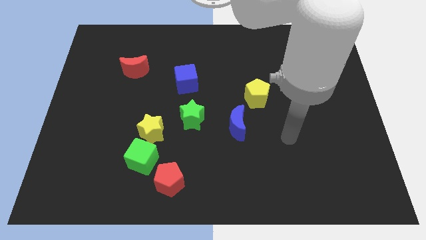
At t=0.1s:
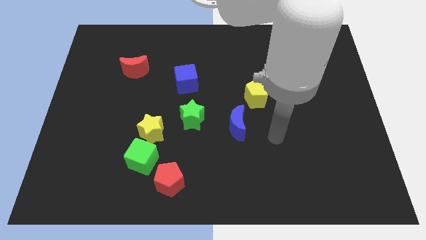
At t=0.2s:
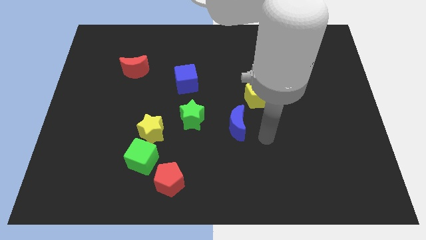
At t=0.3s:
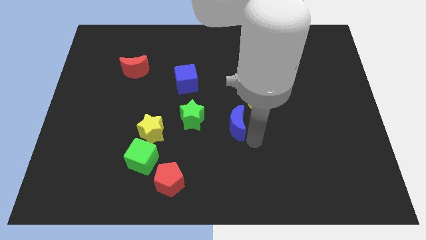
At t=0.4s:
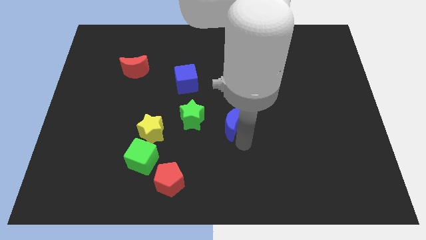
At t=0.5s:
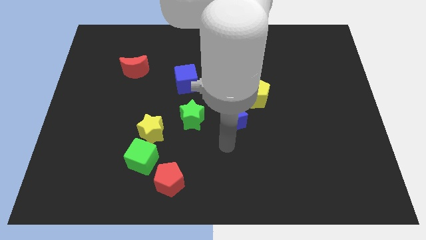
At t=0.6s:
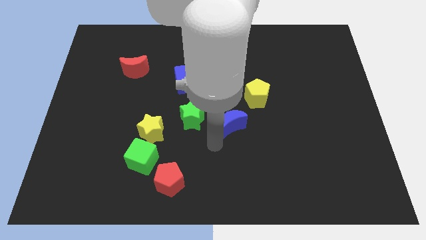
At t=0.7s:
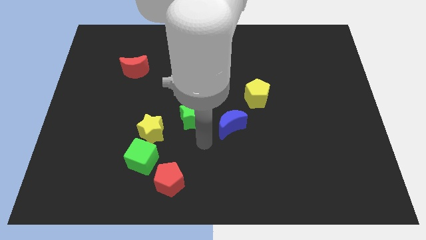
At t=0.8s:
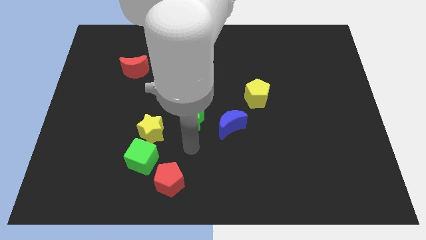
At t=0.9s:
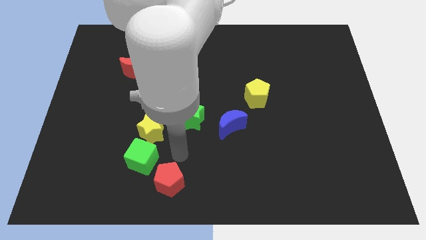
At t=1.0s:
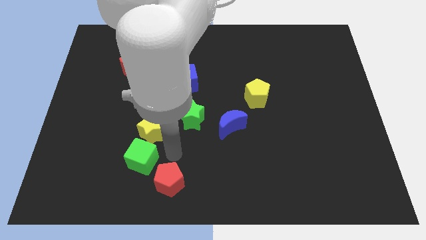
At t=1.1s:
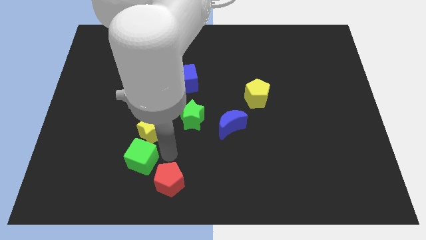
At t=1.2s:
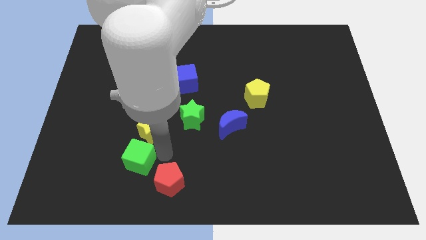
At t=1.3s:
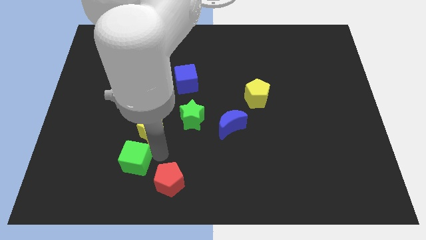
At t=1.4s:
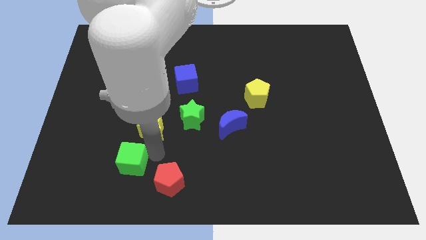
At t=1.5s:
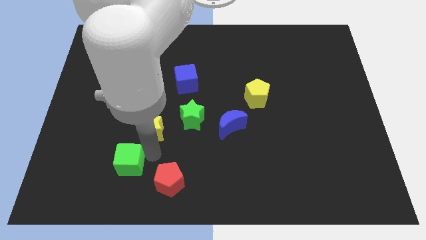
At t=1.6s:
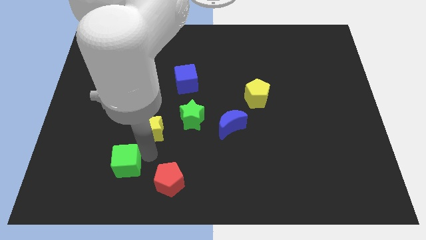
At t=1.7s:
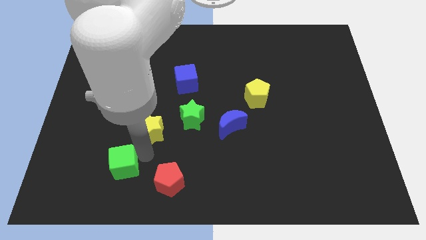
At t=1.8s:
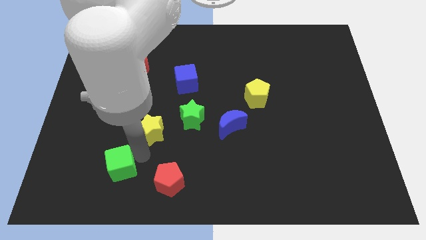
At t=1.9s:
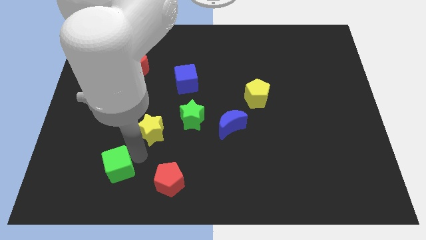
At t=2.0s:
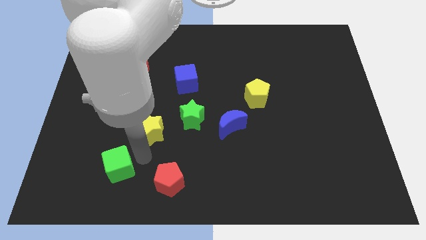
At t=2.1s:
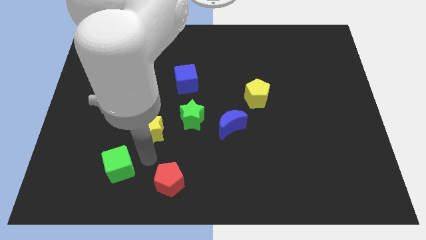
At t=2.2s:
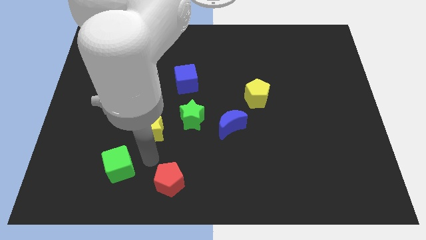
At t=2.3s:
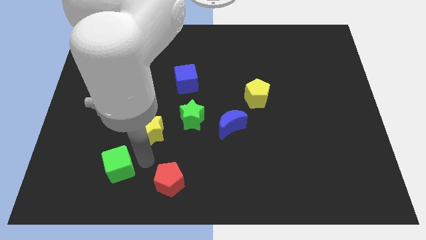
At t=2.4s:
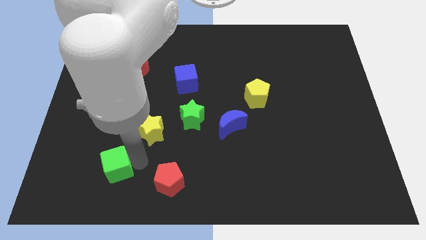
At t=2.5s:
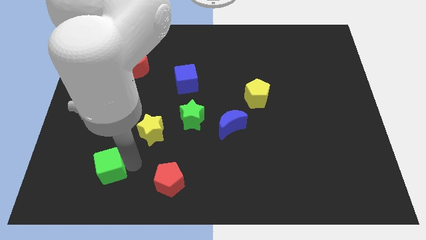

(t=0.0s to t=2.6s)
pull the green cube apart from the yellow star and red pentagon

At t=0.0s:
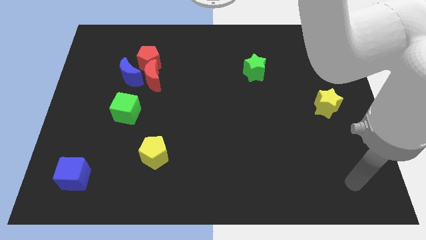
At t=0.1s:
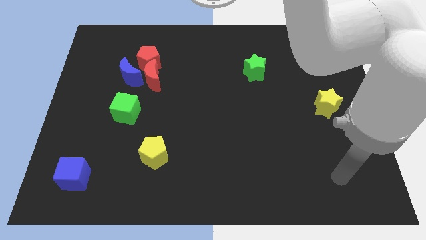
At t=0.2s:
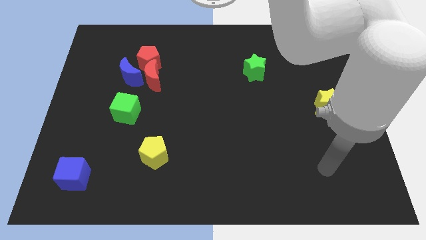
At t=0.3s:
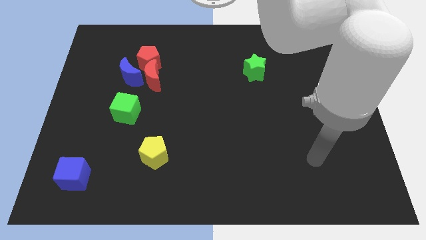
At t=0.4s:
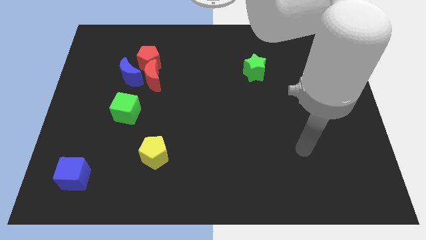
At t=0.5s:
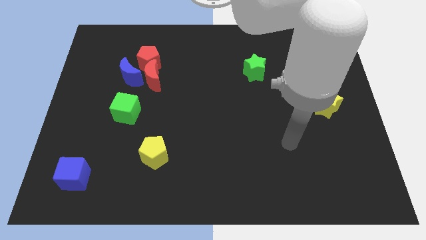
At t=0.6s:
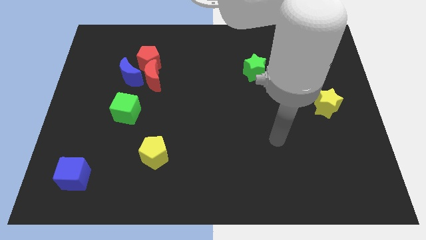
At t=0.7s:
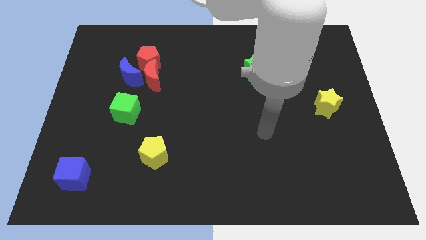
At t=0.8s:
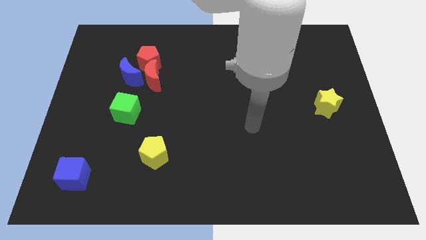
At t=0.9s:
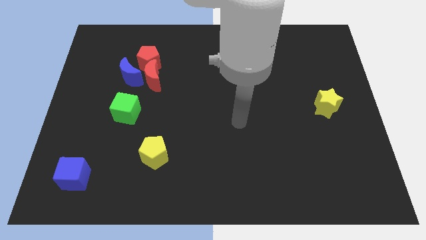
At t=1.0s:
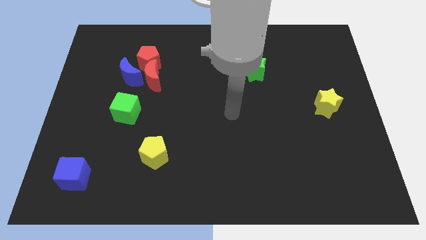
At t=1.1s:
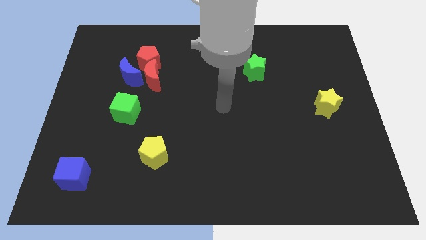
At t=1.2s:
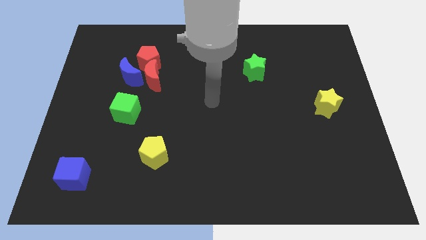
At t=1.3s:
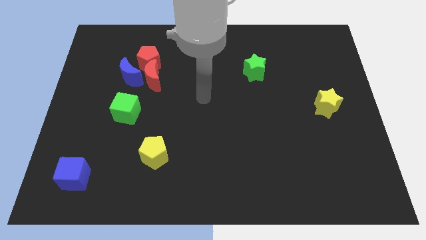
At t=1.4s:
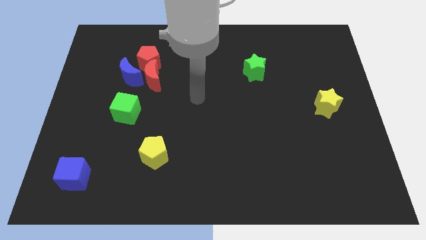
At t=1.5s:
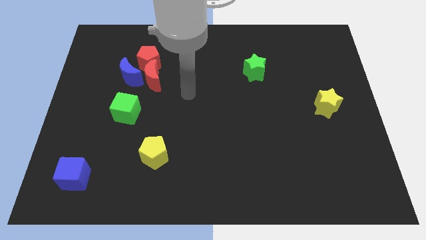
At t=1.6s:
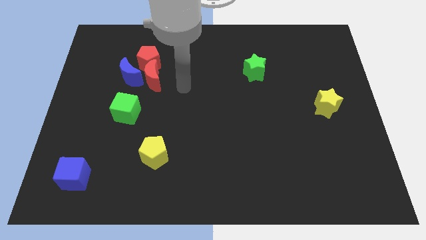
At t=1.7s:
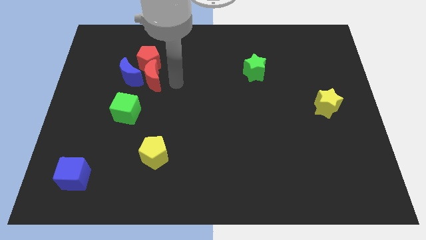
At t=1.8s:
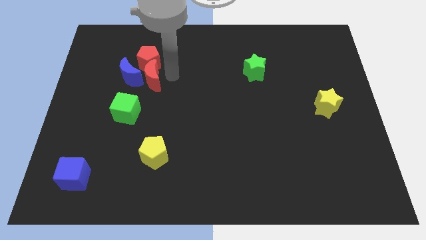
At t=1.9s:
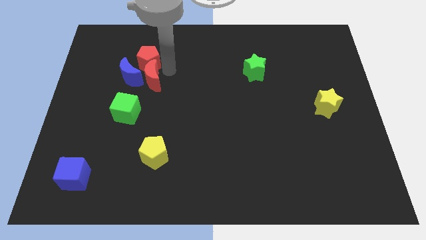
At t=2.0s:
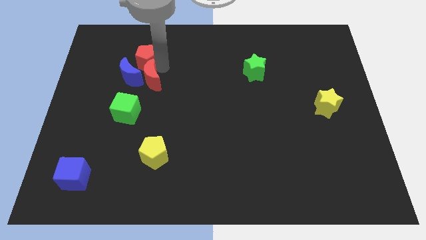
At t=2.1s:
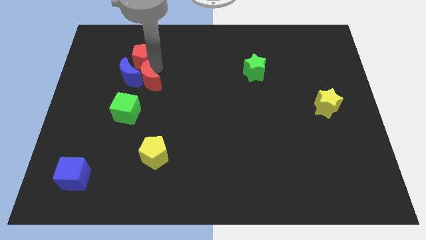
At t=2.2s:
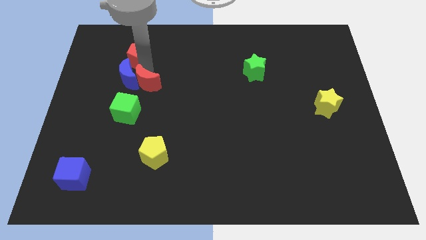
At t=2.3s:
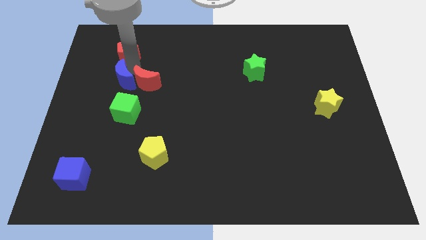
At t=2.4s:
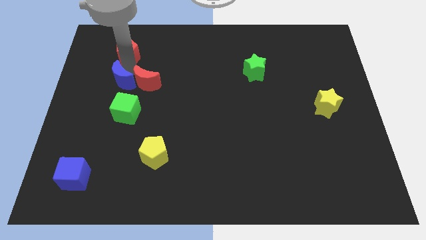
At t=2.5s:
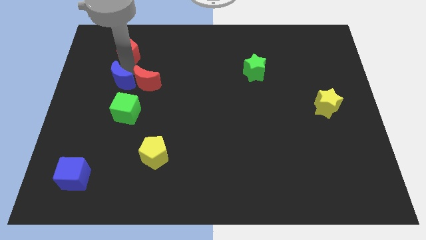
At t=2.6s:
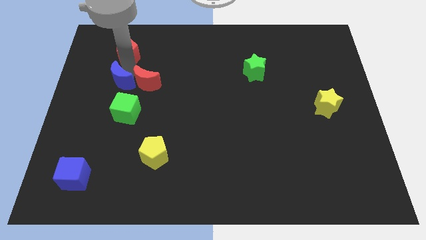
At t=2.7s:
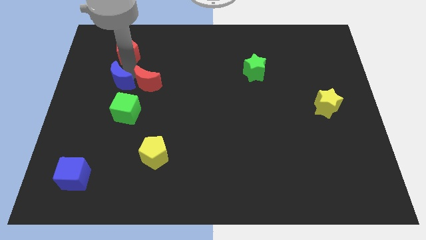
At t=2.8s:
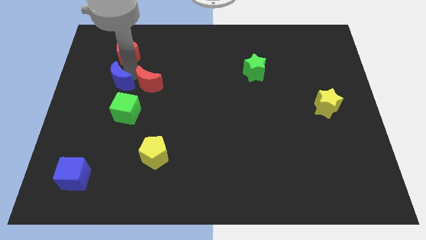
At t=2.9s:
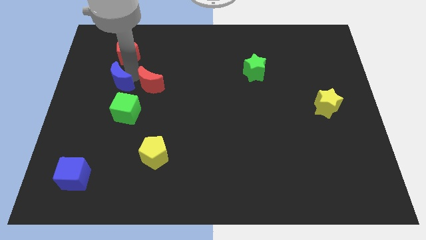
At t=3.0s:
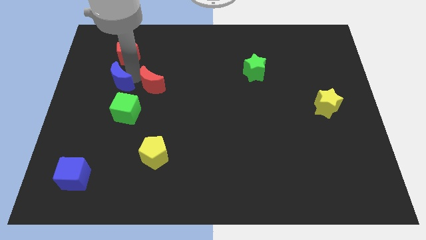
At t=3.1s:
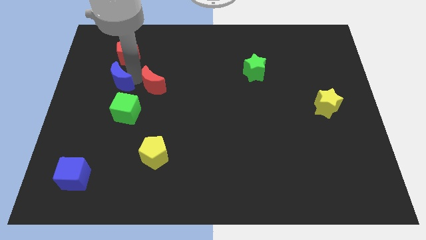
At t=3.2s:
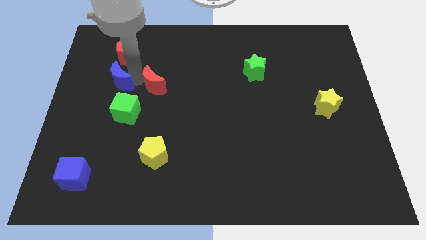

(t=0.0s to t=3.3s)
move the red moon away from the blue moon and red pentagon

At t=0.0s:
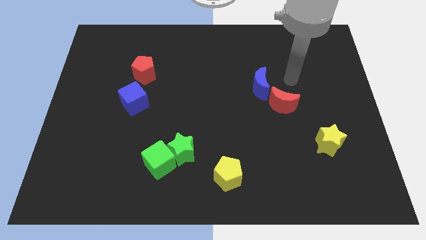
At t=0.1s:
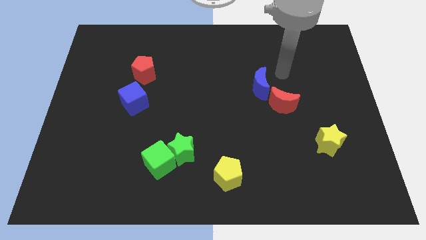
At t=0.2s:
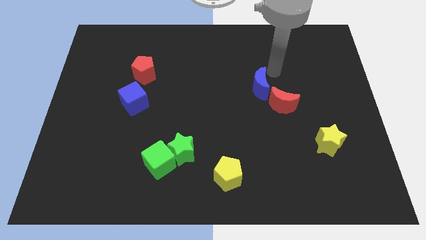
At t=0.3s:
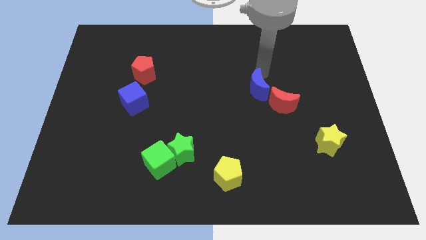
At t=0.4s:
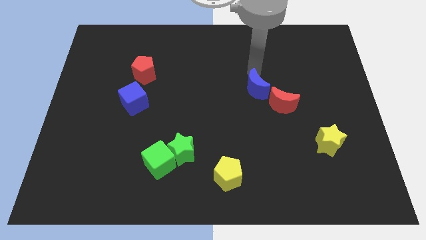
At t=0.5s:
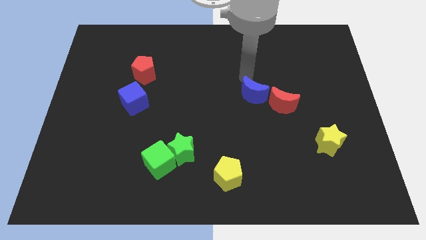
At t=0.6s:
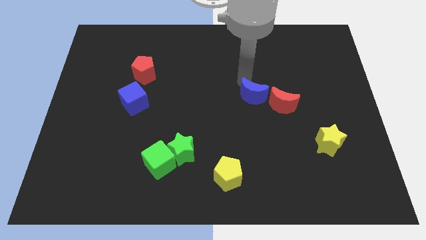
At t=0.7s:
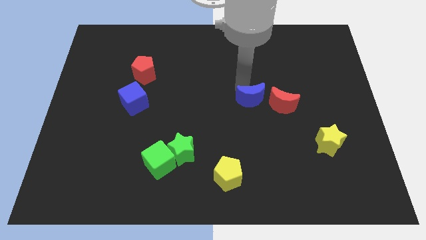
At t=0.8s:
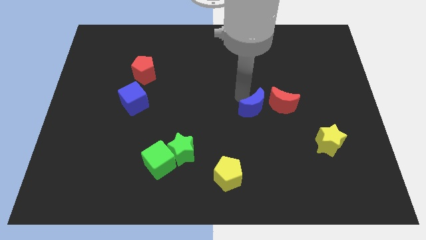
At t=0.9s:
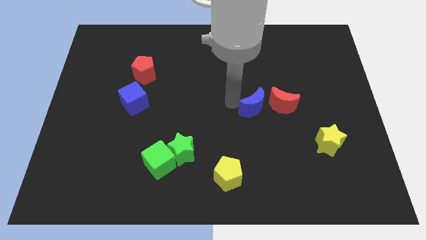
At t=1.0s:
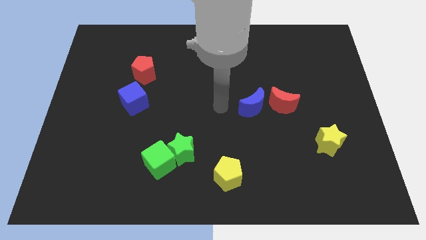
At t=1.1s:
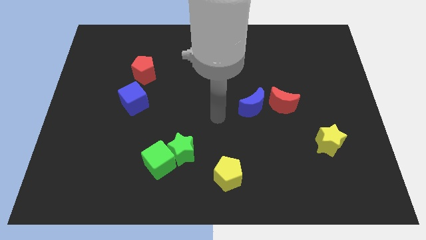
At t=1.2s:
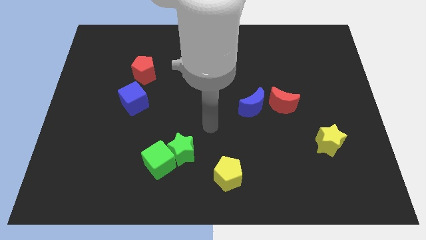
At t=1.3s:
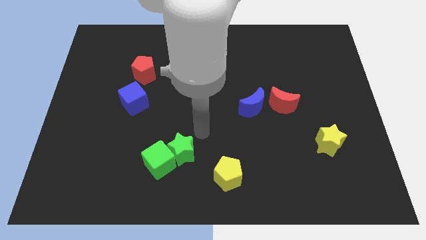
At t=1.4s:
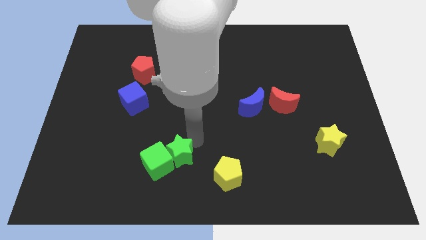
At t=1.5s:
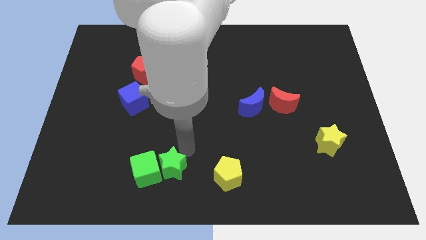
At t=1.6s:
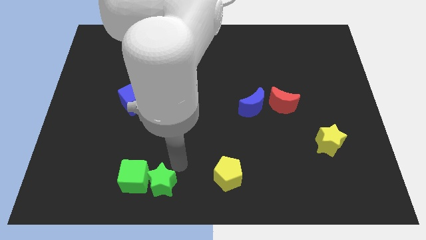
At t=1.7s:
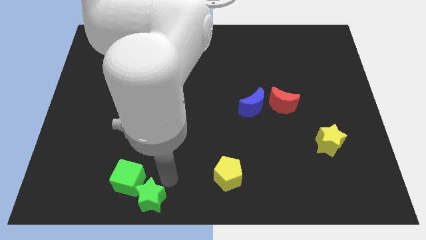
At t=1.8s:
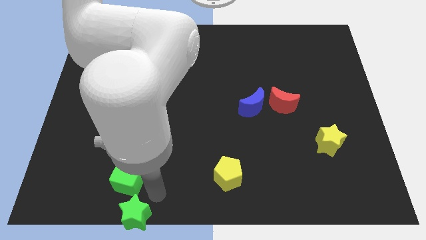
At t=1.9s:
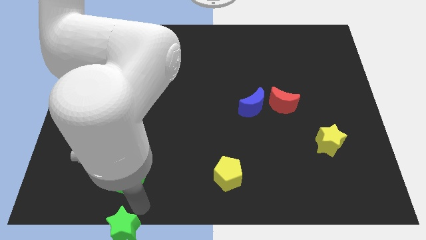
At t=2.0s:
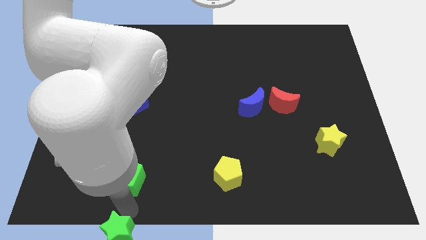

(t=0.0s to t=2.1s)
pull the green cube apart from the green star

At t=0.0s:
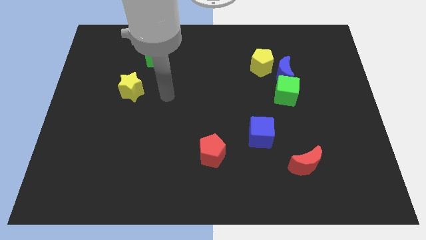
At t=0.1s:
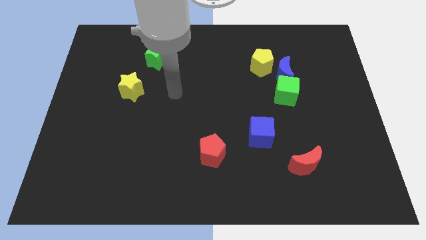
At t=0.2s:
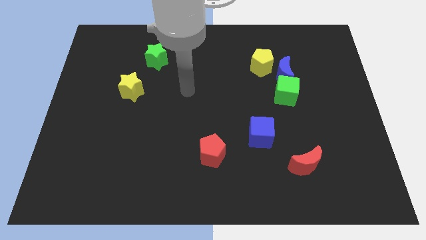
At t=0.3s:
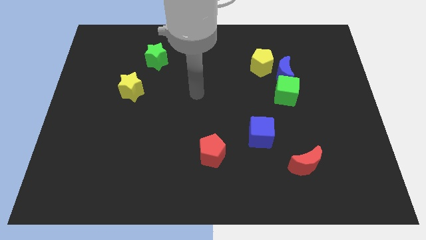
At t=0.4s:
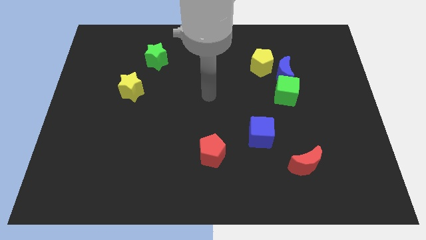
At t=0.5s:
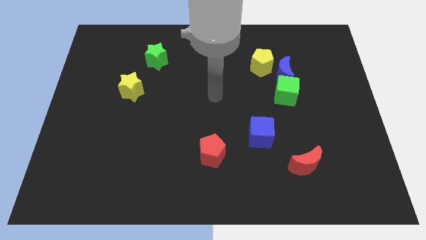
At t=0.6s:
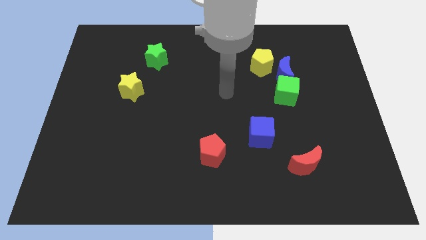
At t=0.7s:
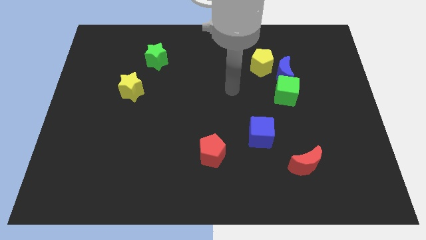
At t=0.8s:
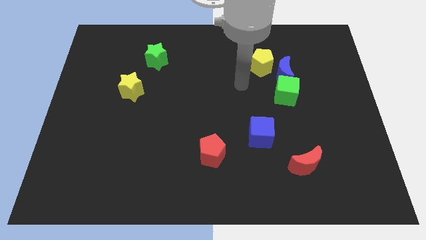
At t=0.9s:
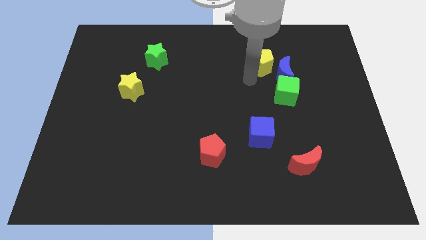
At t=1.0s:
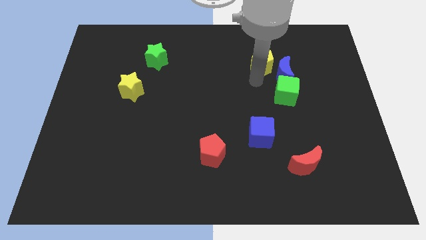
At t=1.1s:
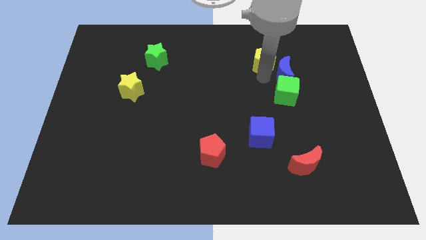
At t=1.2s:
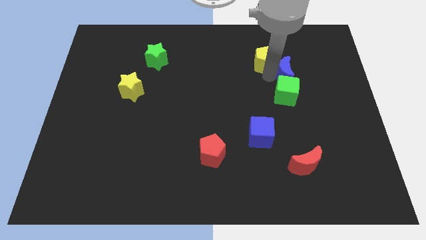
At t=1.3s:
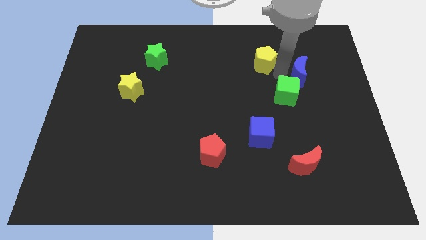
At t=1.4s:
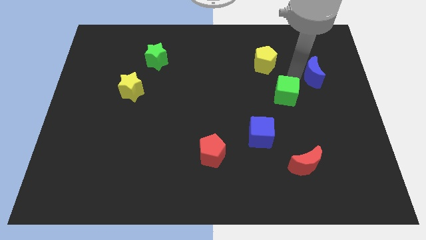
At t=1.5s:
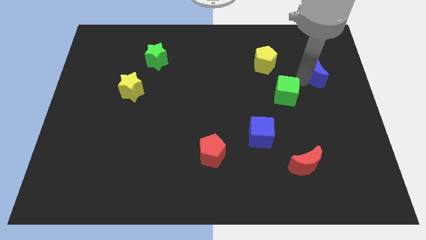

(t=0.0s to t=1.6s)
separate the green cube from the blue moon
